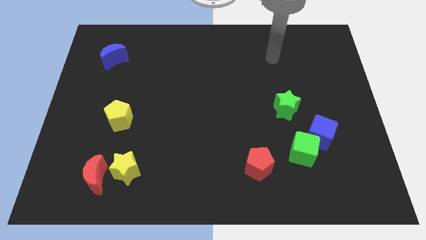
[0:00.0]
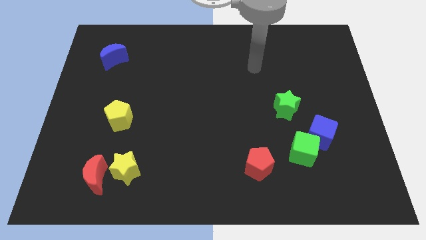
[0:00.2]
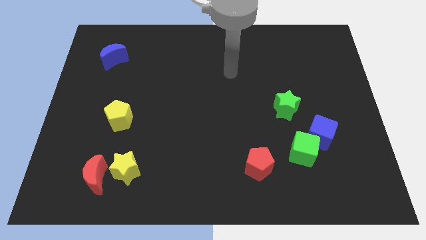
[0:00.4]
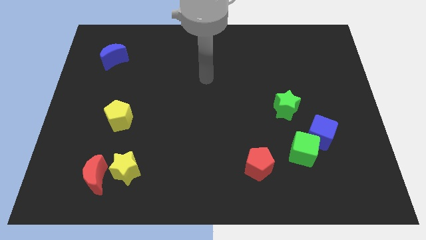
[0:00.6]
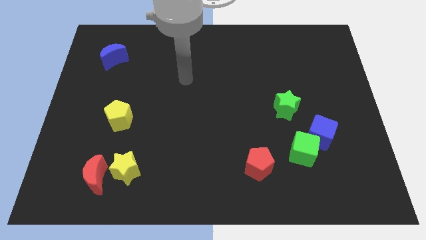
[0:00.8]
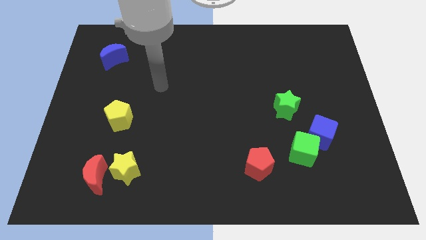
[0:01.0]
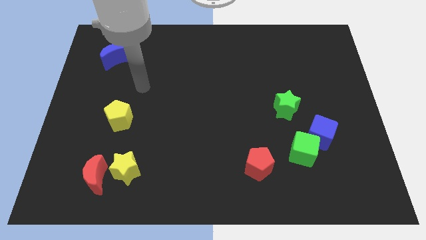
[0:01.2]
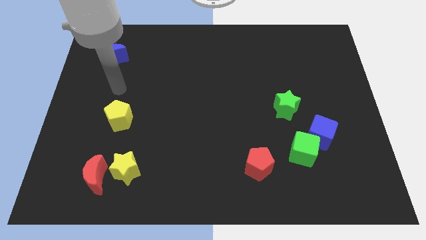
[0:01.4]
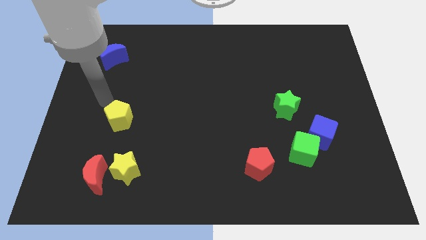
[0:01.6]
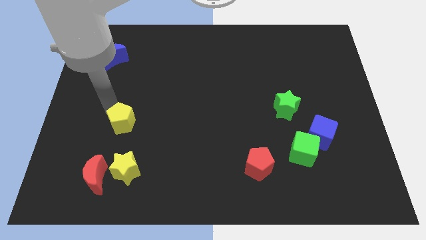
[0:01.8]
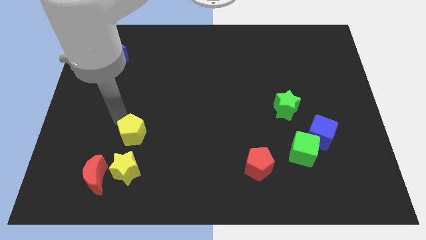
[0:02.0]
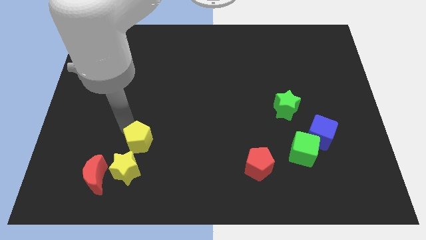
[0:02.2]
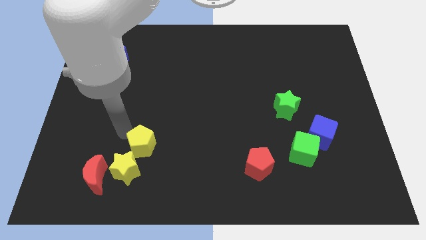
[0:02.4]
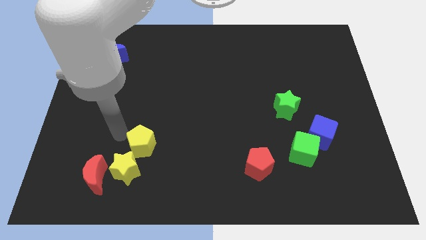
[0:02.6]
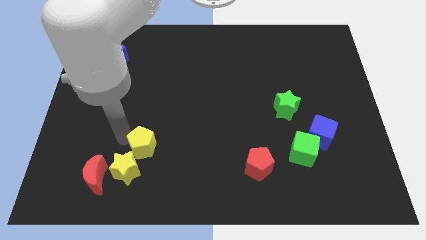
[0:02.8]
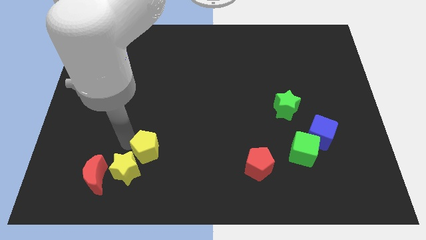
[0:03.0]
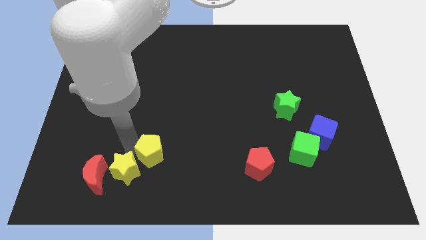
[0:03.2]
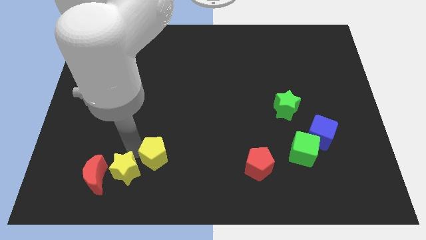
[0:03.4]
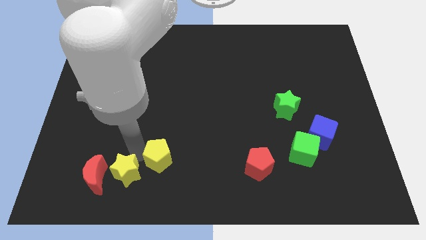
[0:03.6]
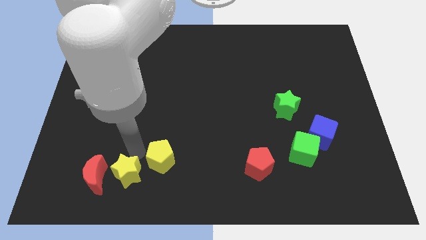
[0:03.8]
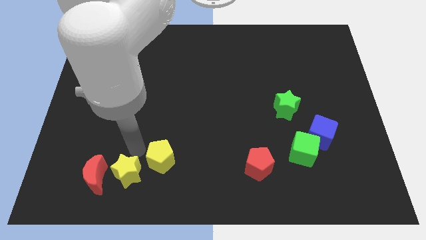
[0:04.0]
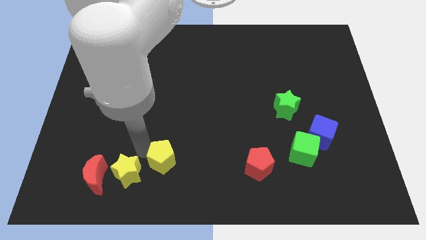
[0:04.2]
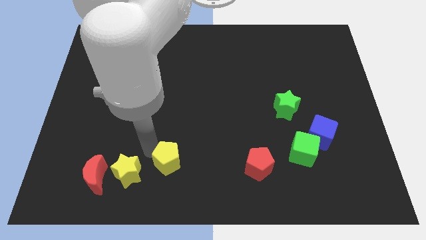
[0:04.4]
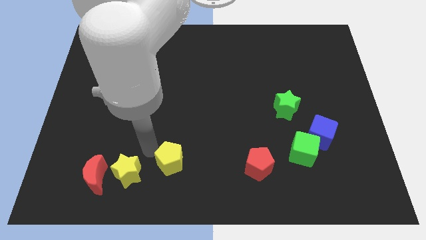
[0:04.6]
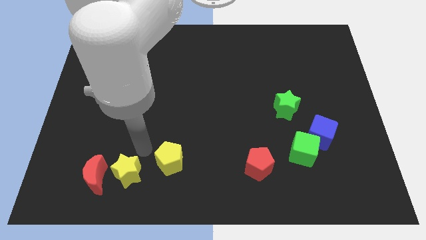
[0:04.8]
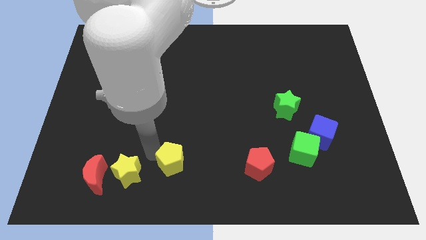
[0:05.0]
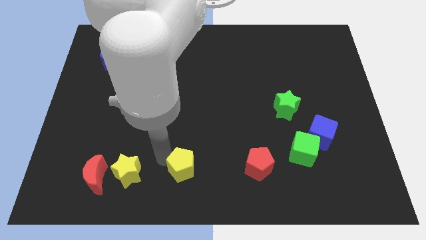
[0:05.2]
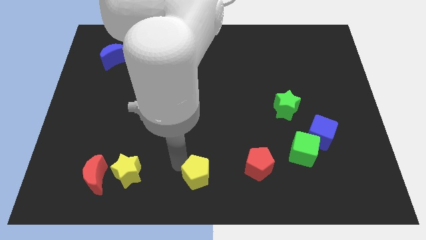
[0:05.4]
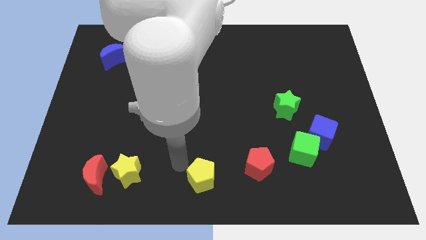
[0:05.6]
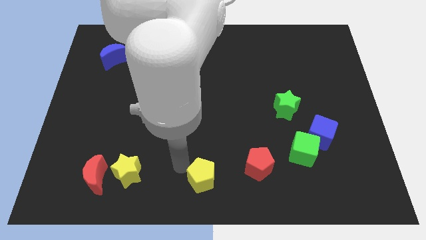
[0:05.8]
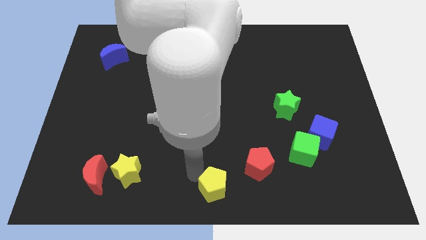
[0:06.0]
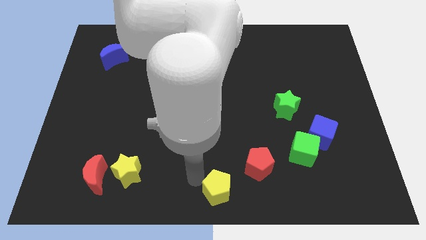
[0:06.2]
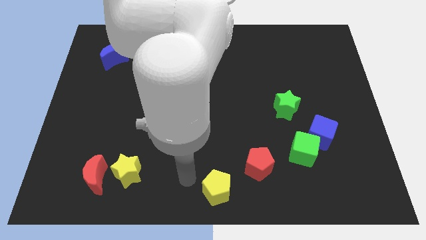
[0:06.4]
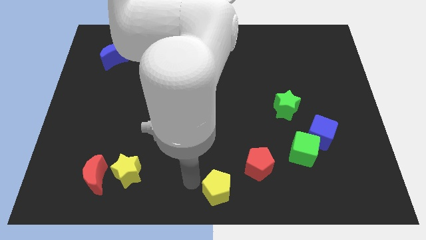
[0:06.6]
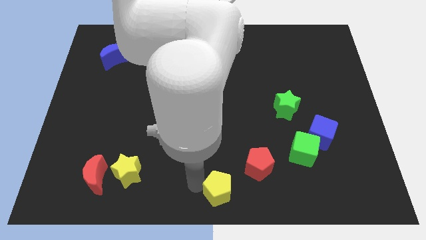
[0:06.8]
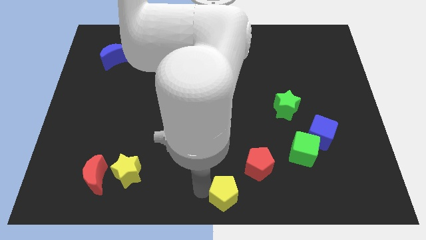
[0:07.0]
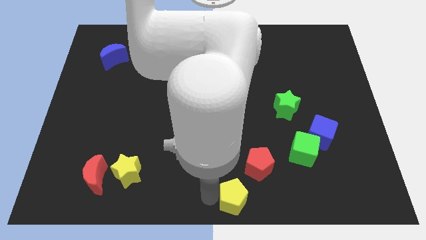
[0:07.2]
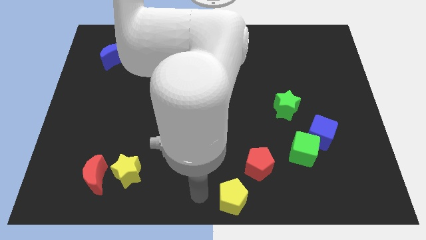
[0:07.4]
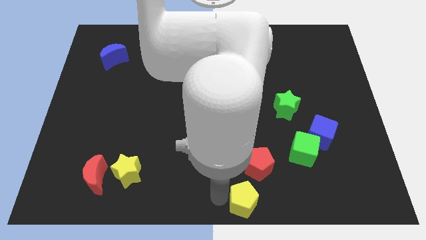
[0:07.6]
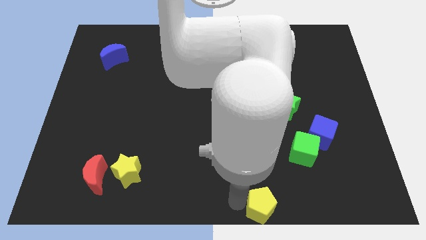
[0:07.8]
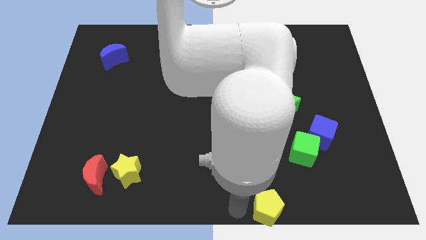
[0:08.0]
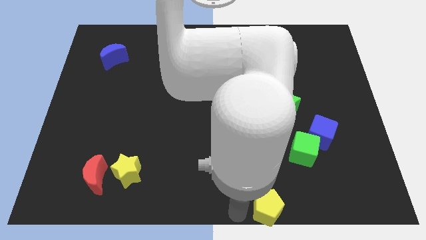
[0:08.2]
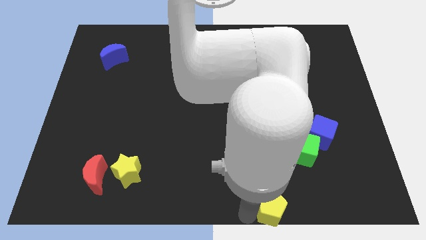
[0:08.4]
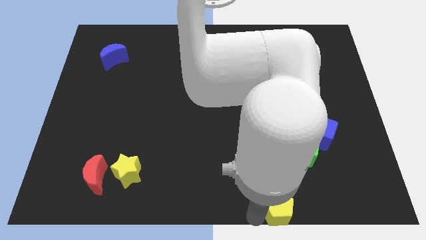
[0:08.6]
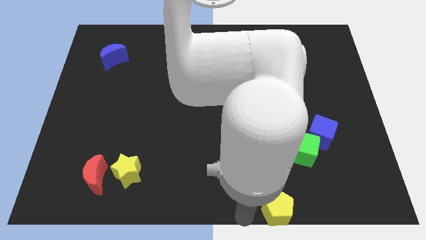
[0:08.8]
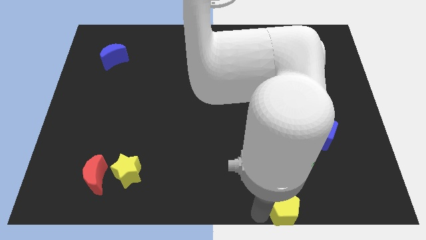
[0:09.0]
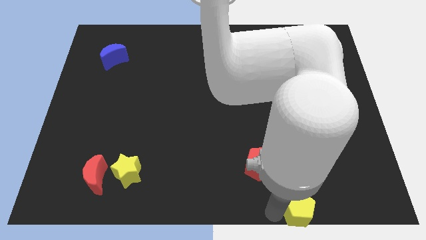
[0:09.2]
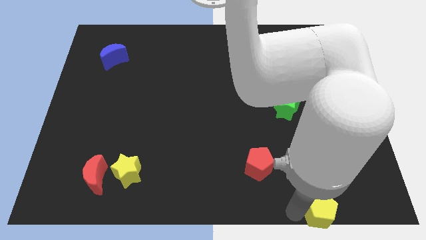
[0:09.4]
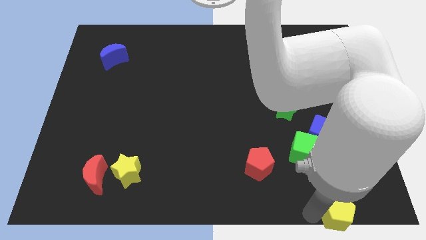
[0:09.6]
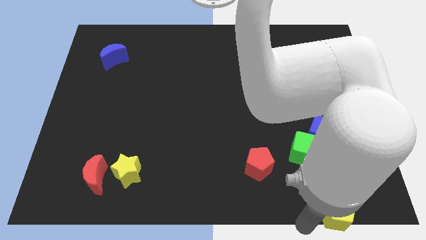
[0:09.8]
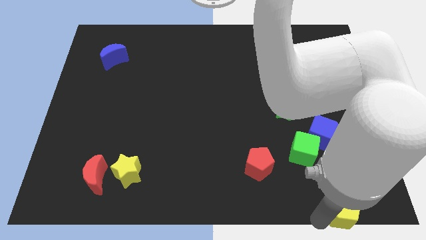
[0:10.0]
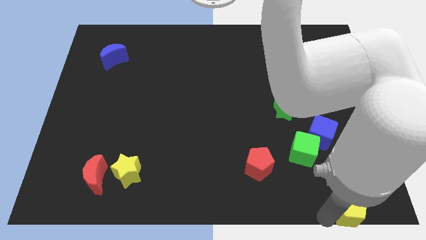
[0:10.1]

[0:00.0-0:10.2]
put the yellow pentagon to the bottom right
